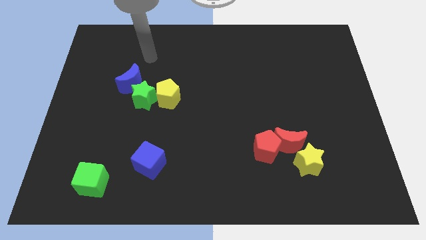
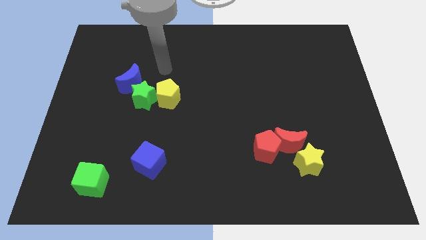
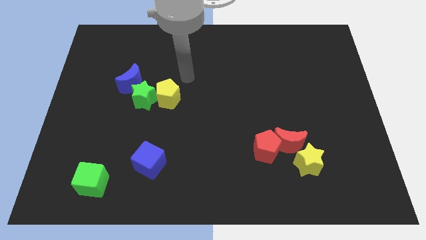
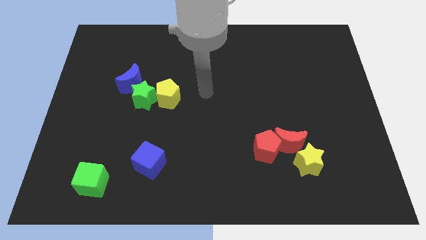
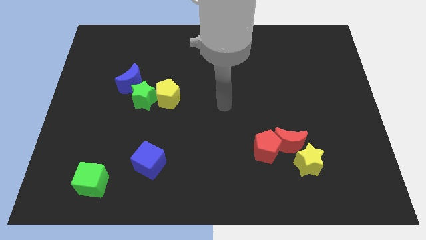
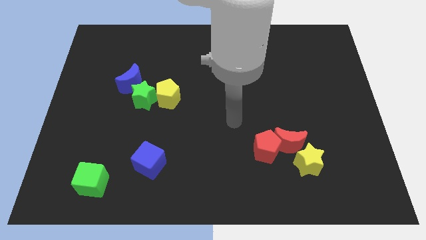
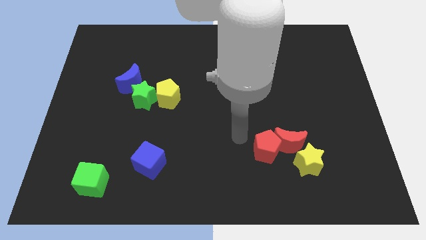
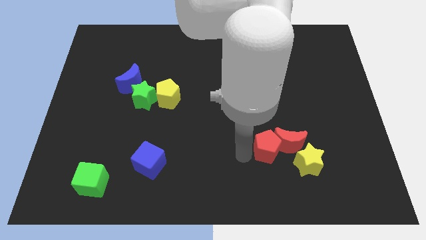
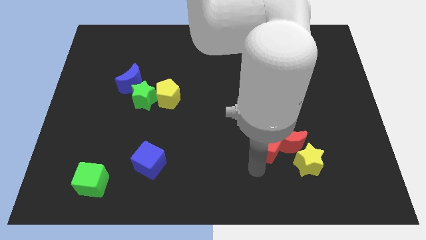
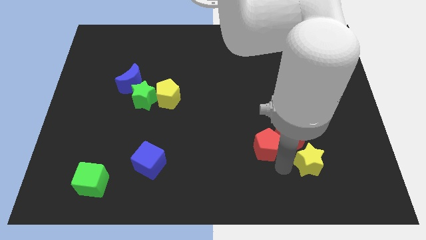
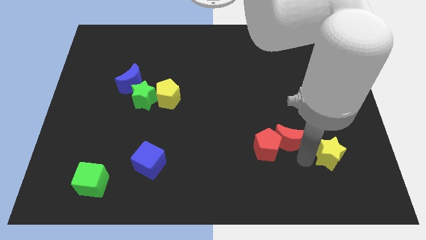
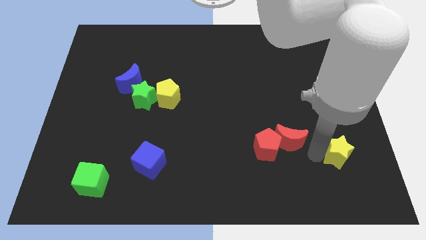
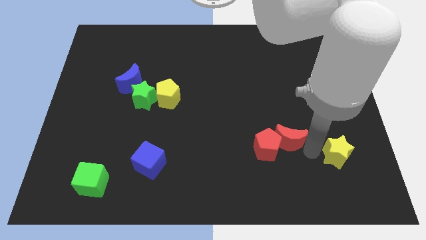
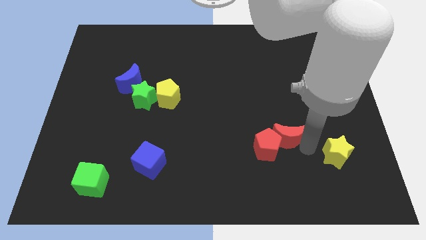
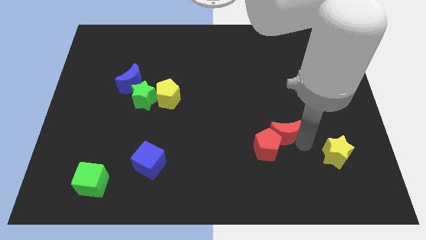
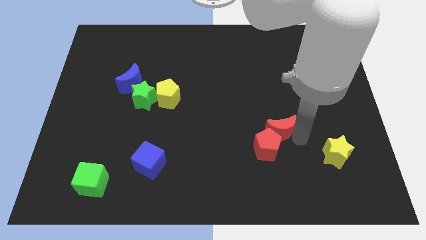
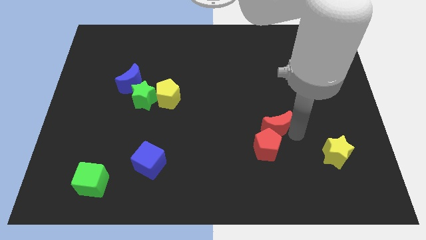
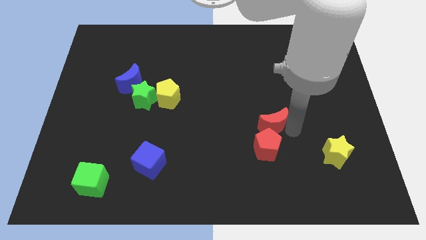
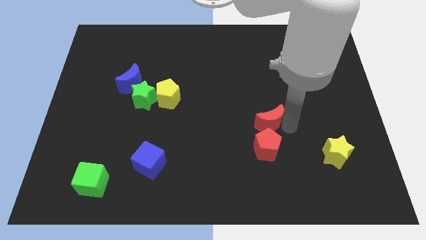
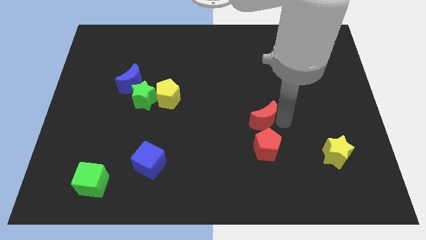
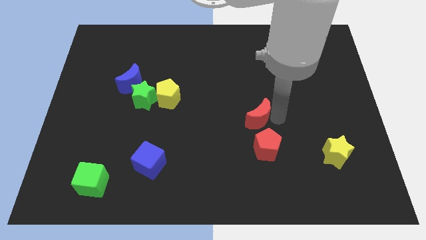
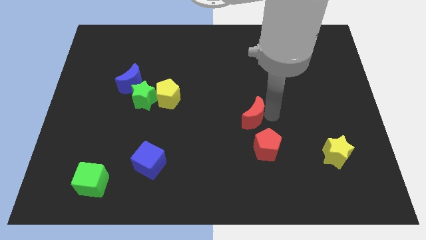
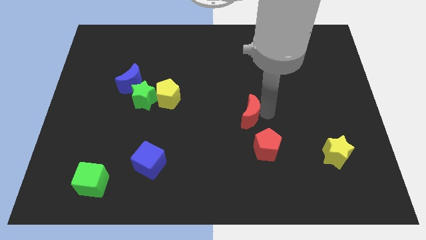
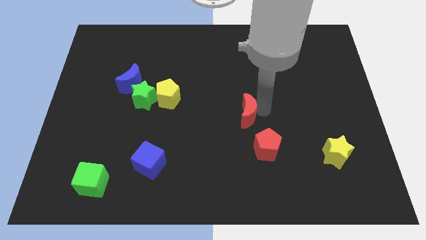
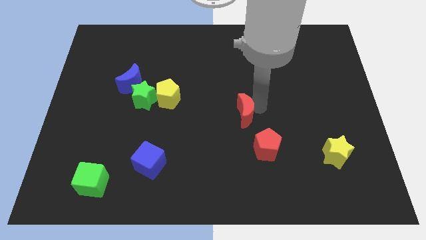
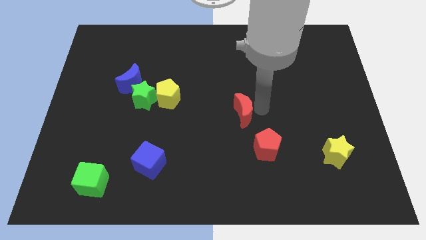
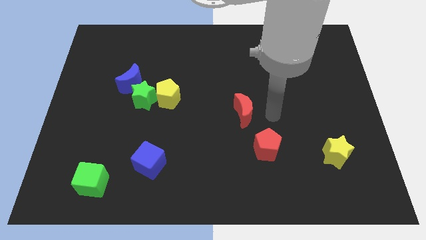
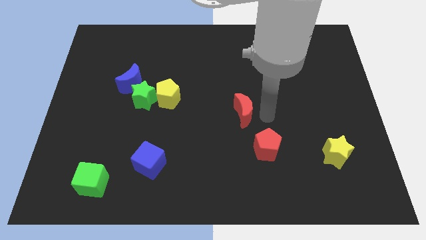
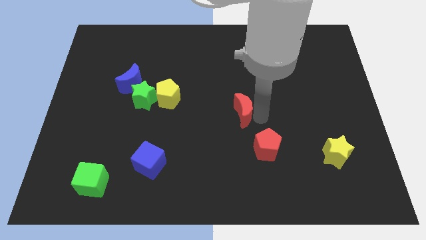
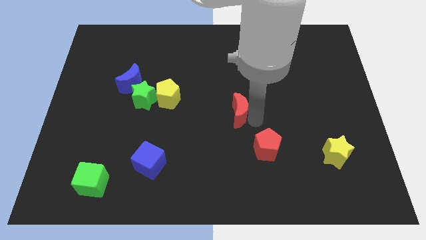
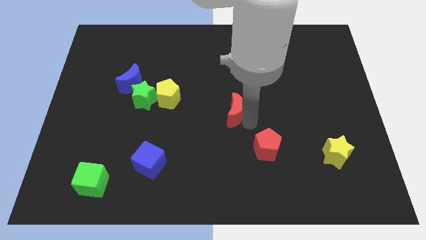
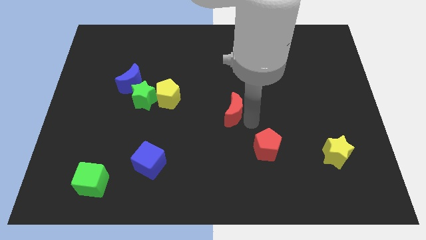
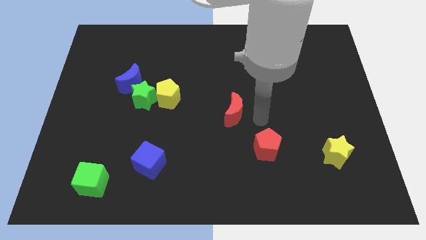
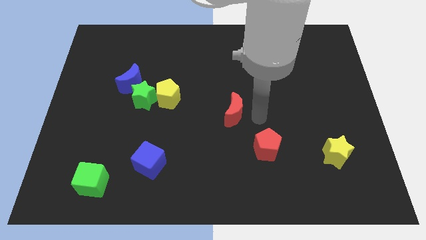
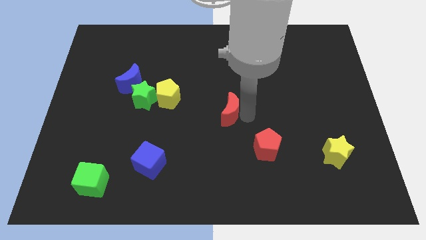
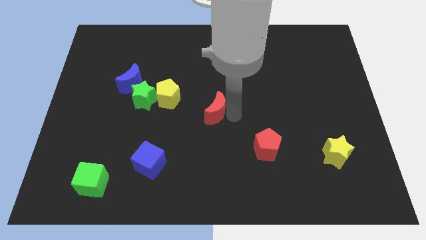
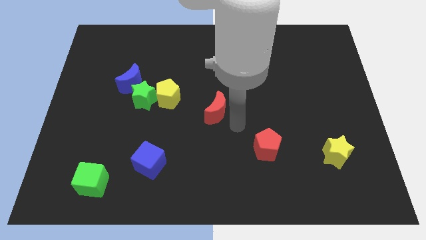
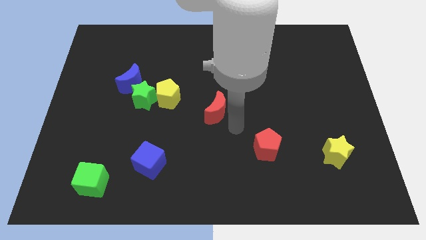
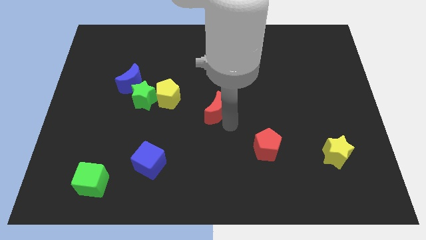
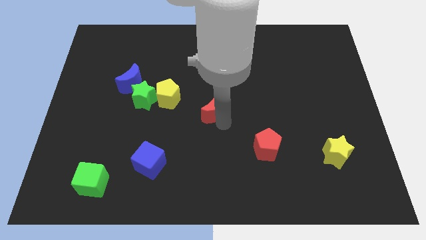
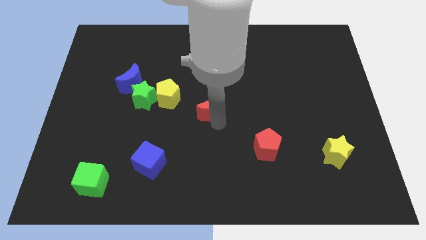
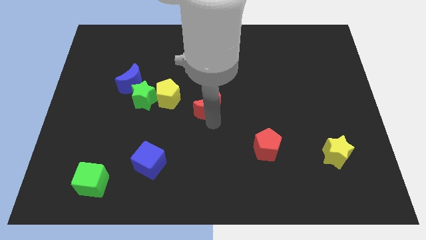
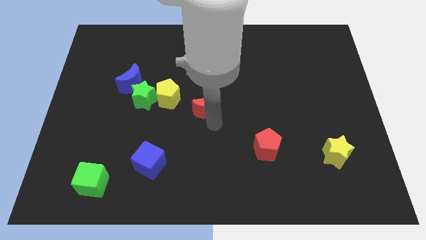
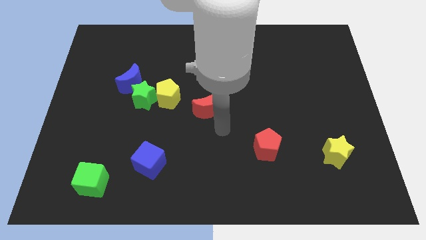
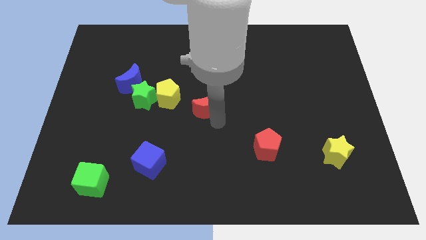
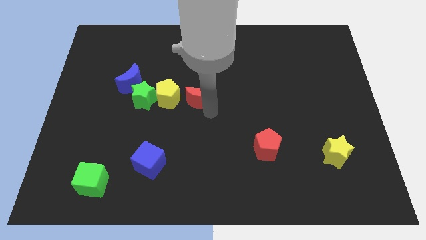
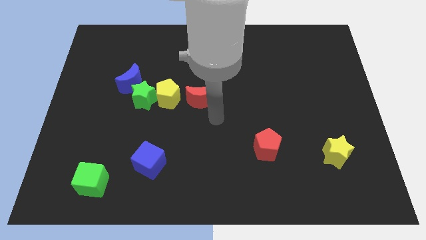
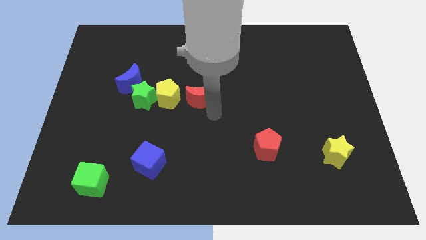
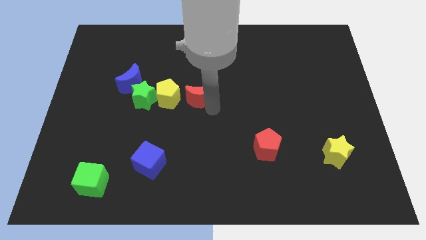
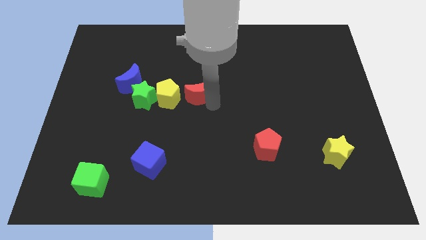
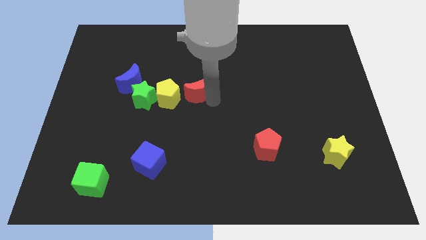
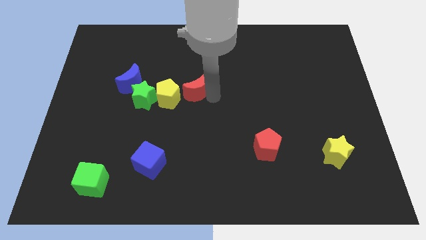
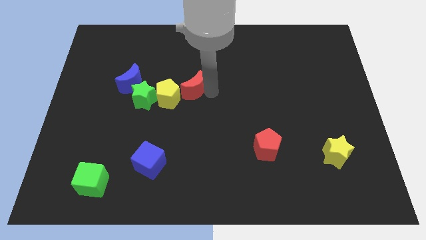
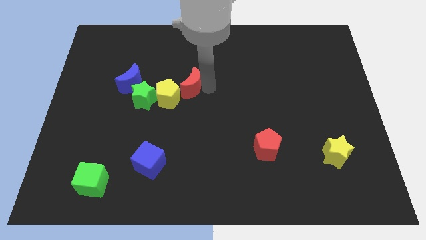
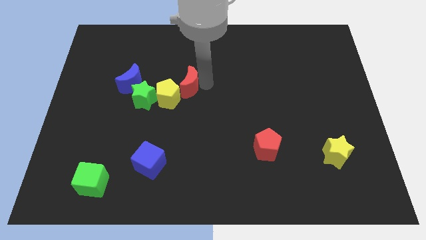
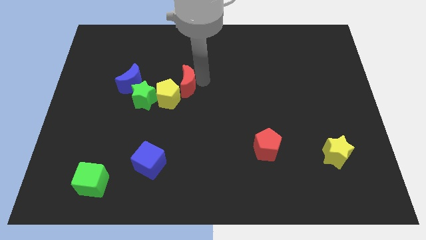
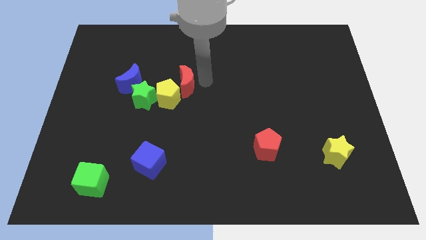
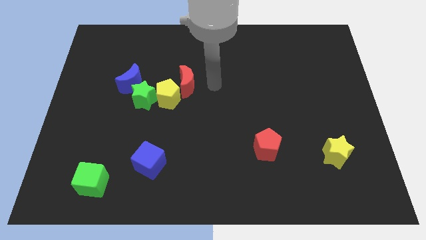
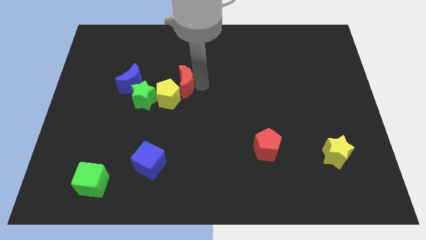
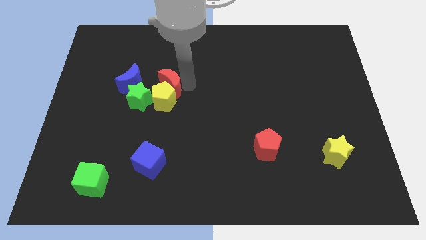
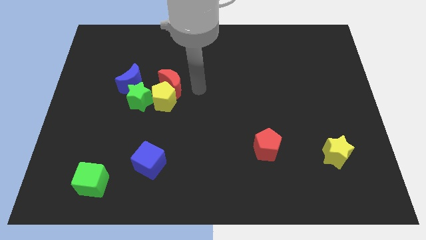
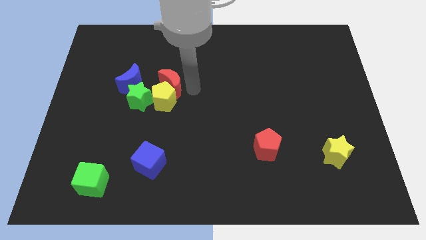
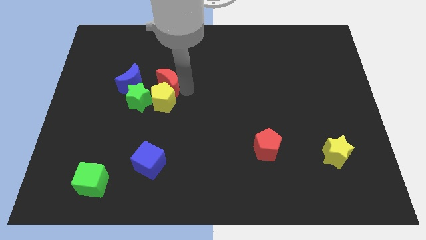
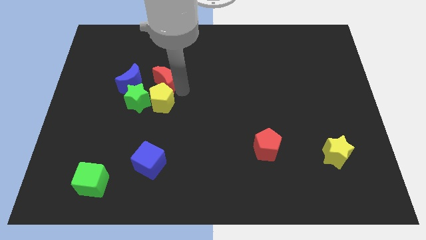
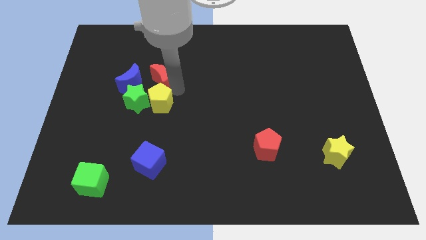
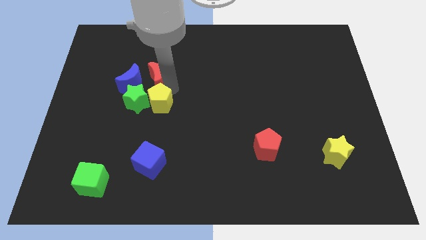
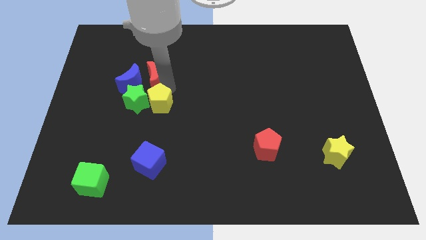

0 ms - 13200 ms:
slide the red moon next to the blue moon

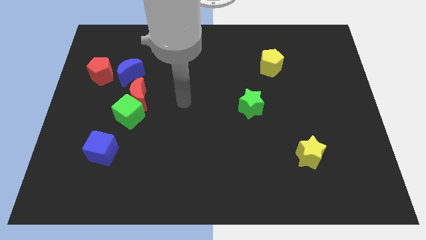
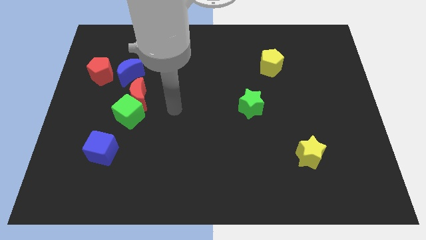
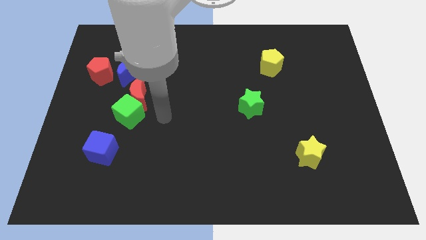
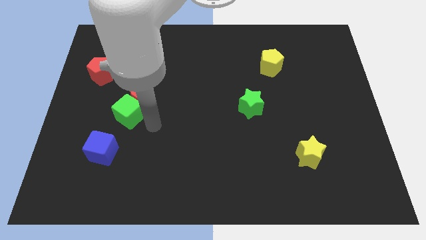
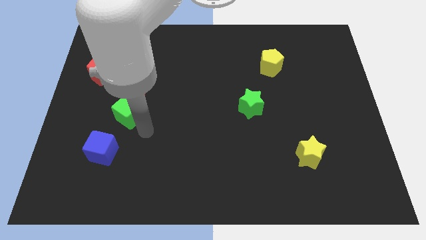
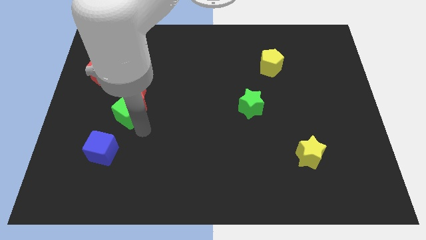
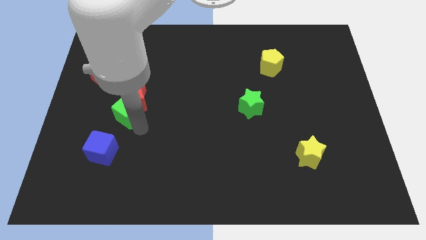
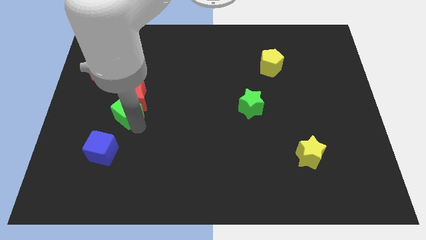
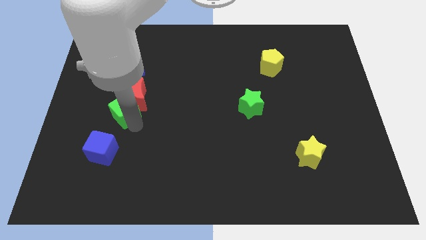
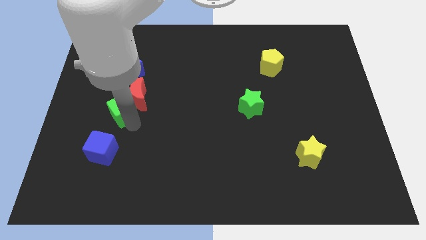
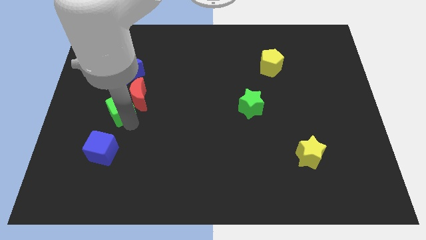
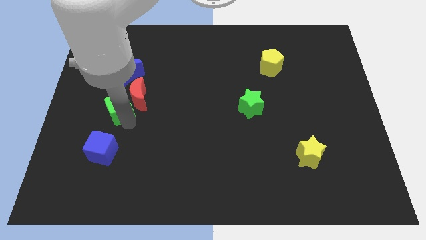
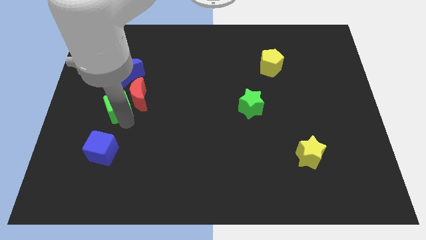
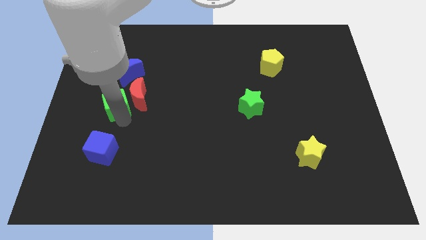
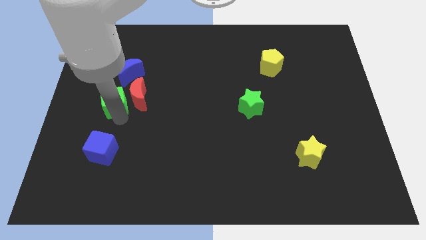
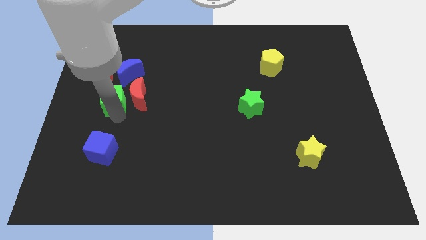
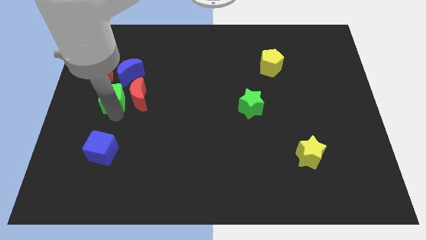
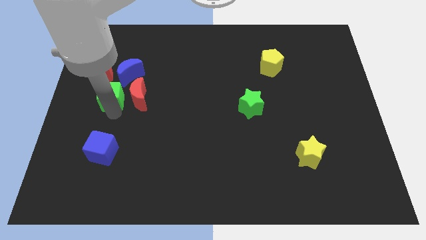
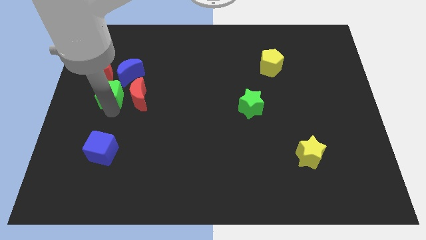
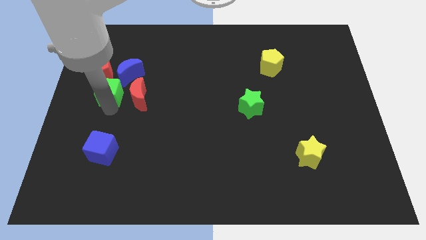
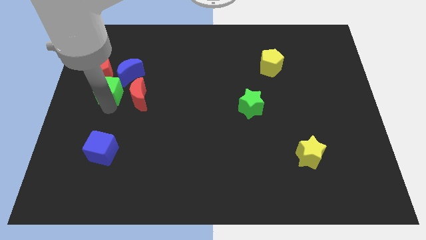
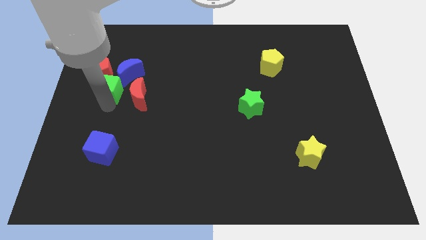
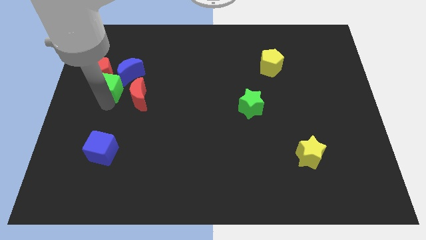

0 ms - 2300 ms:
push the green cube to the red pentagon
